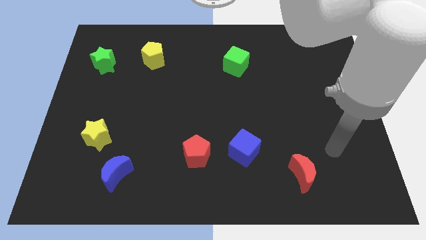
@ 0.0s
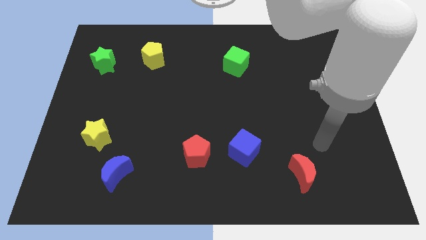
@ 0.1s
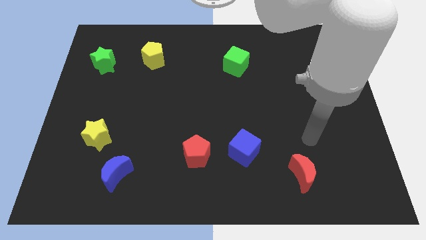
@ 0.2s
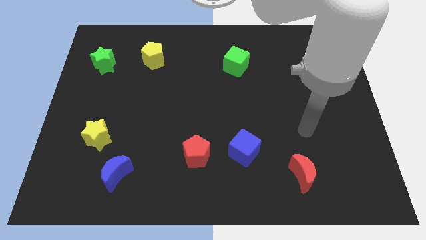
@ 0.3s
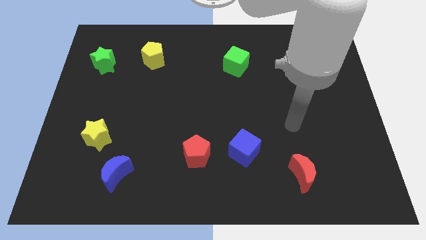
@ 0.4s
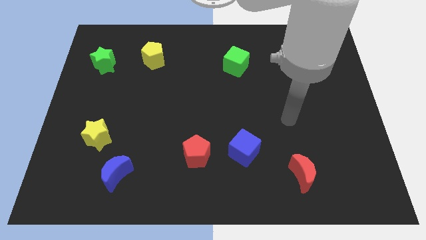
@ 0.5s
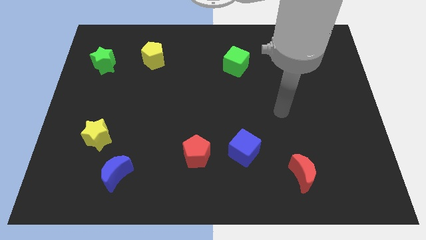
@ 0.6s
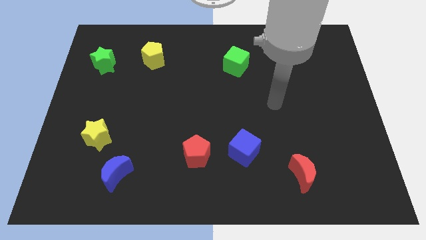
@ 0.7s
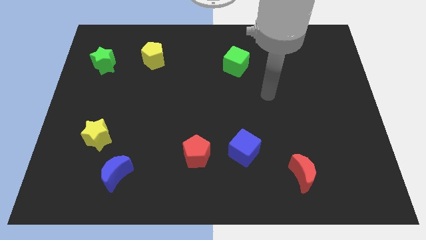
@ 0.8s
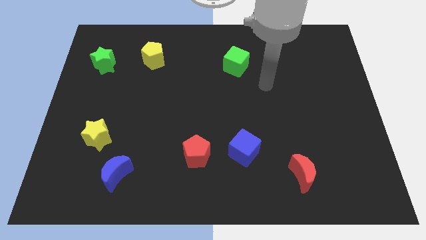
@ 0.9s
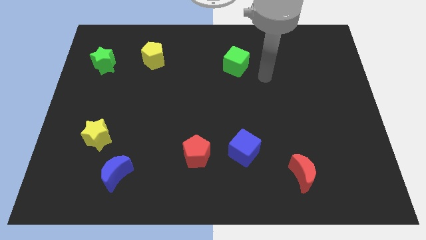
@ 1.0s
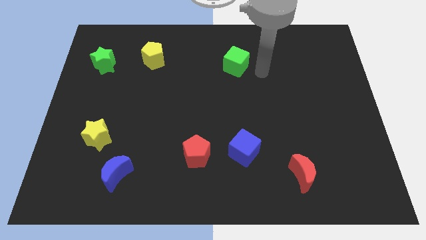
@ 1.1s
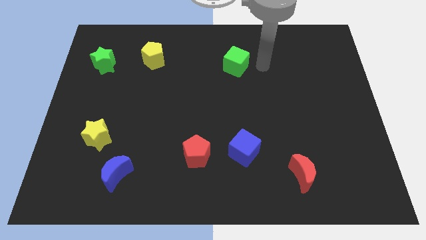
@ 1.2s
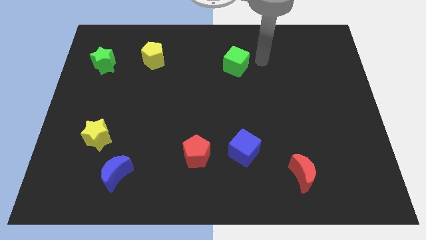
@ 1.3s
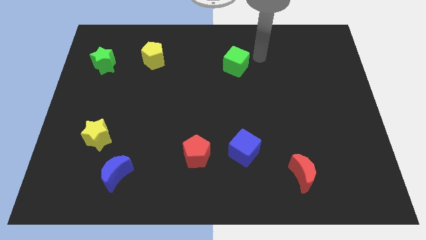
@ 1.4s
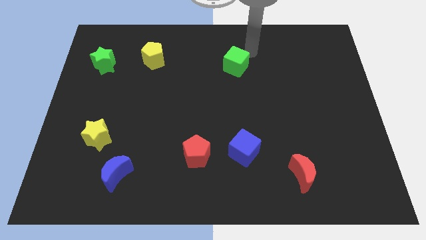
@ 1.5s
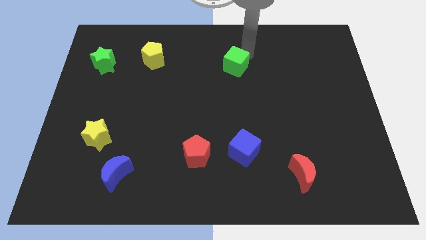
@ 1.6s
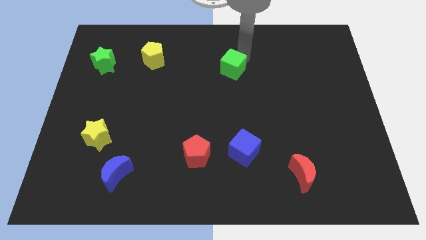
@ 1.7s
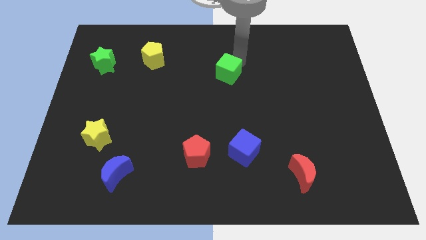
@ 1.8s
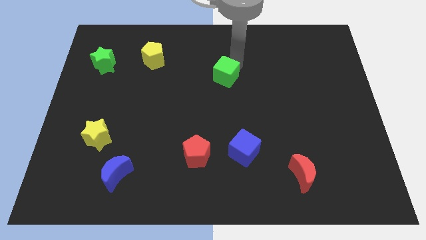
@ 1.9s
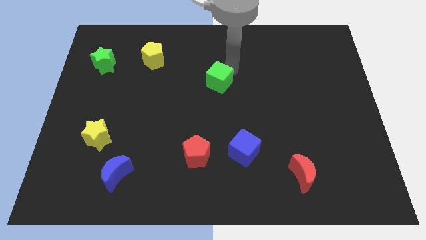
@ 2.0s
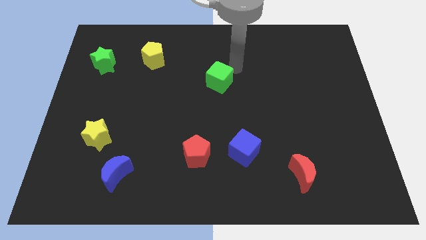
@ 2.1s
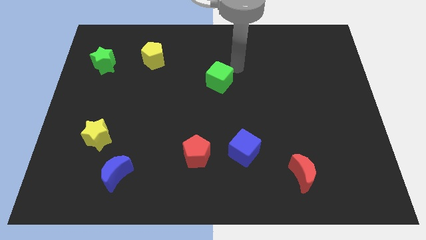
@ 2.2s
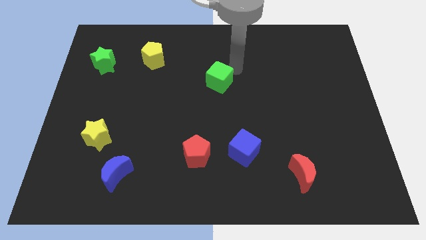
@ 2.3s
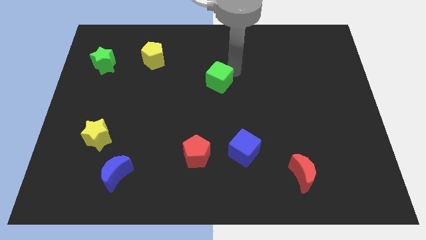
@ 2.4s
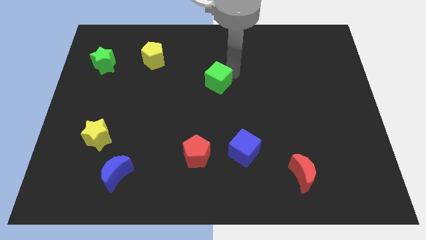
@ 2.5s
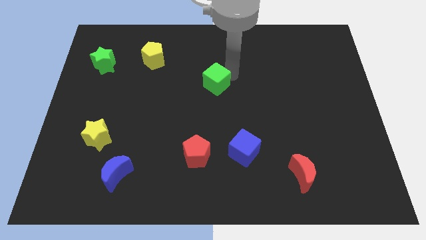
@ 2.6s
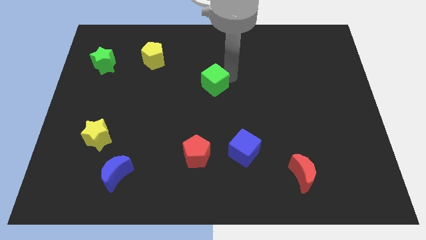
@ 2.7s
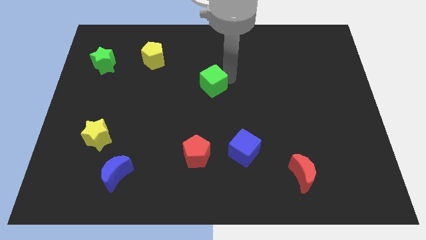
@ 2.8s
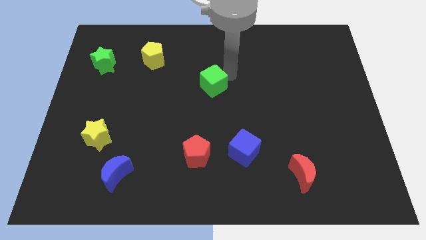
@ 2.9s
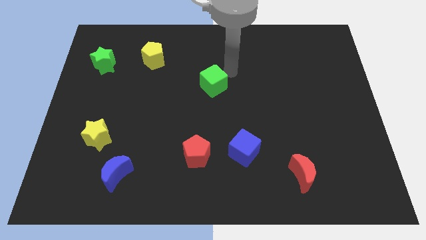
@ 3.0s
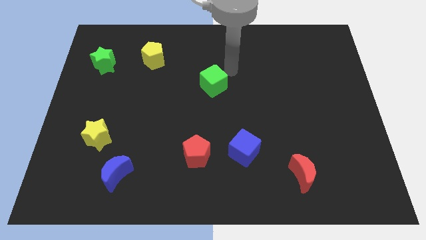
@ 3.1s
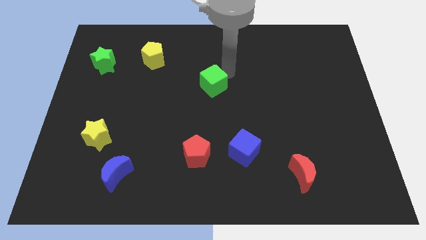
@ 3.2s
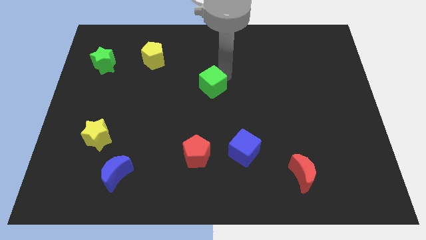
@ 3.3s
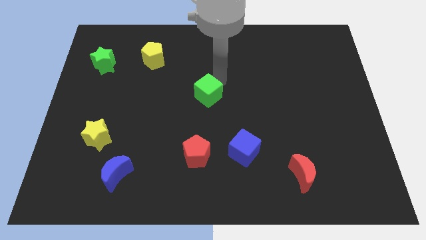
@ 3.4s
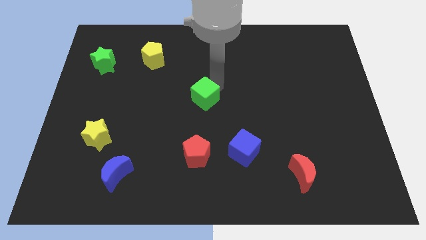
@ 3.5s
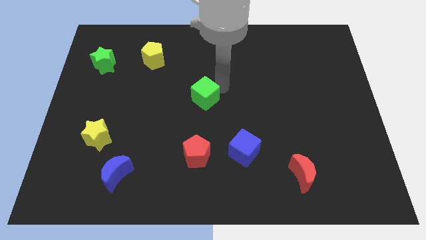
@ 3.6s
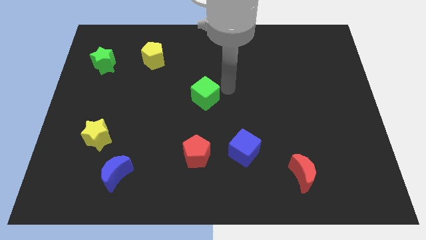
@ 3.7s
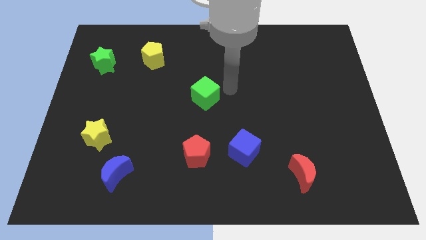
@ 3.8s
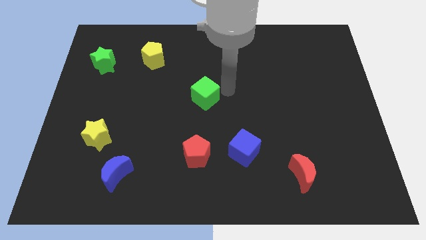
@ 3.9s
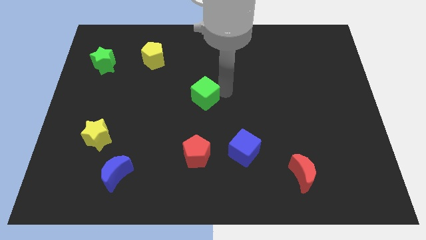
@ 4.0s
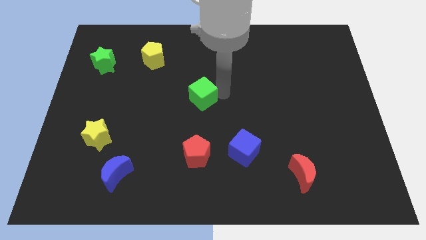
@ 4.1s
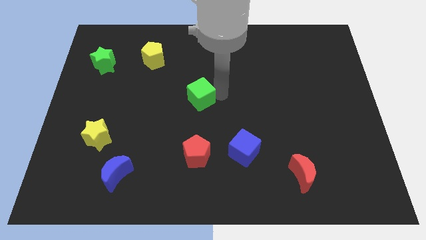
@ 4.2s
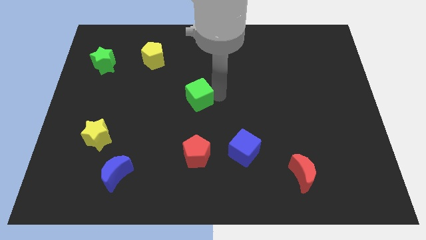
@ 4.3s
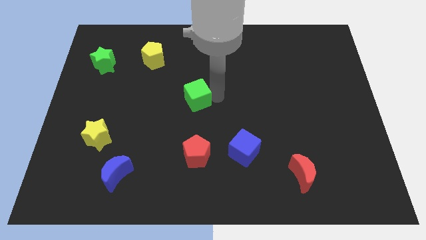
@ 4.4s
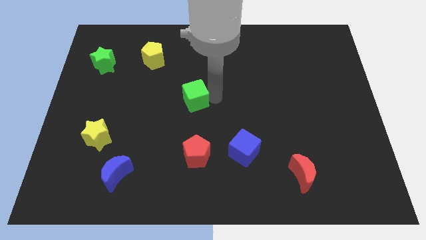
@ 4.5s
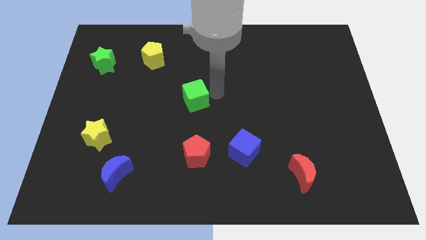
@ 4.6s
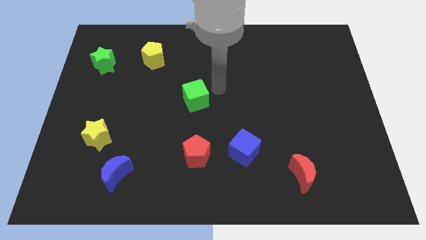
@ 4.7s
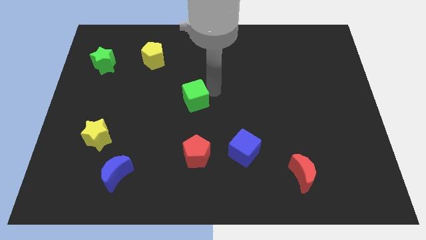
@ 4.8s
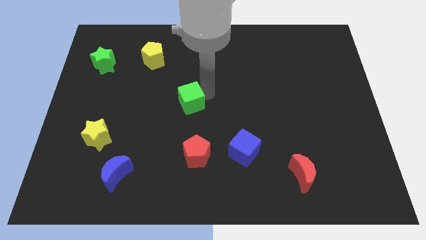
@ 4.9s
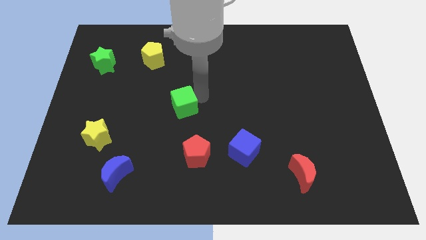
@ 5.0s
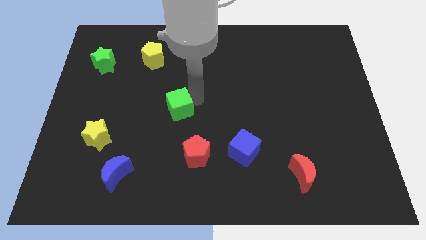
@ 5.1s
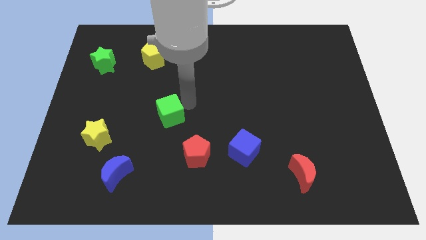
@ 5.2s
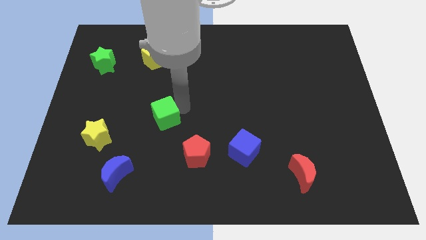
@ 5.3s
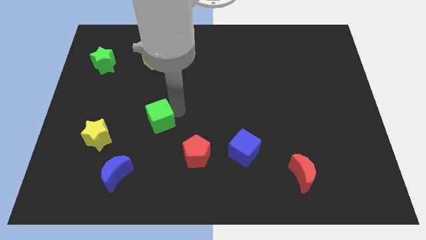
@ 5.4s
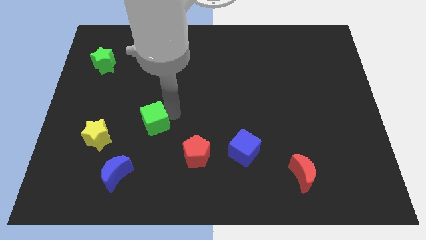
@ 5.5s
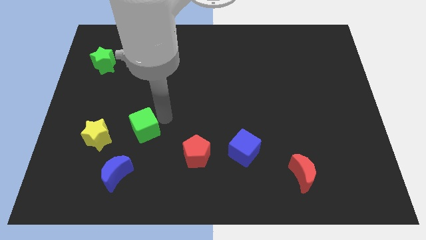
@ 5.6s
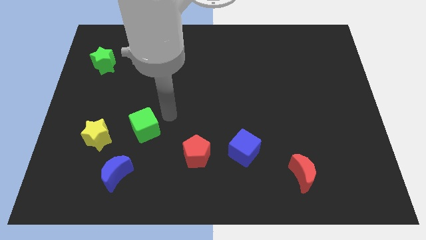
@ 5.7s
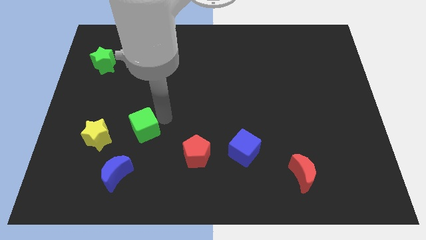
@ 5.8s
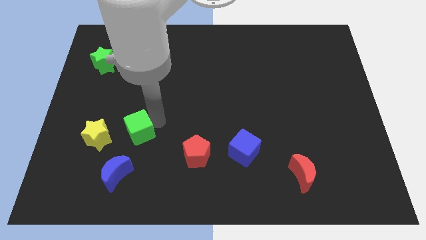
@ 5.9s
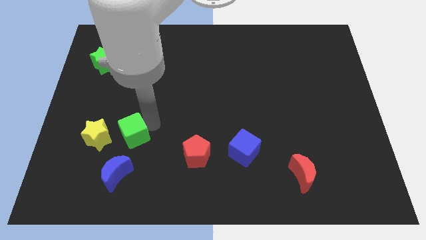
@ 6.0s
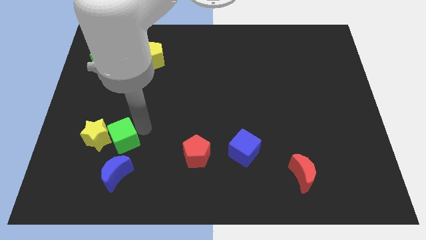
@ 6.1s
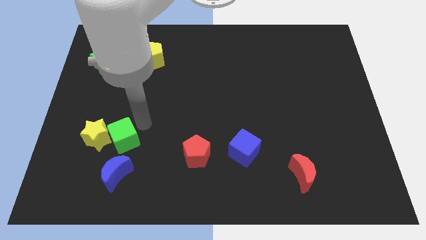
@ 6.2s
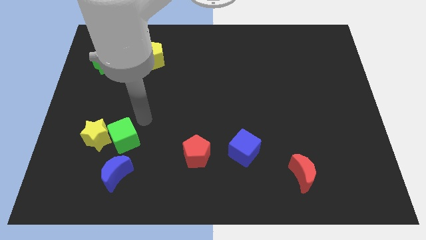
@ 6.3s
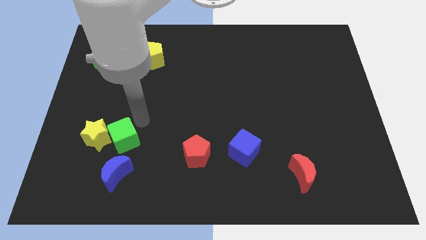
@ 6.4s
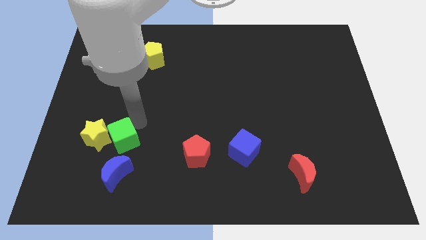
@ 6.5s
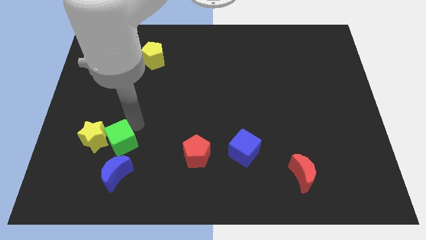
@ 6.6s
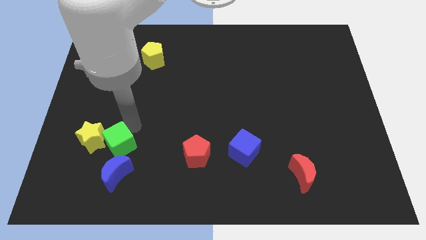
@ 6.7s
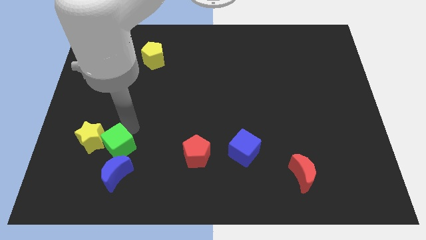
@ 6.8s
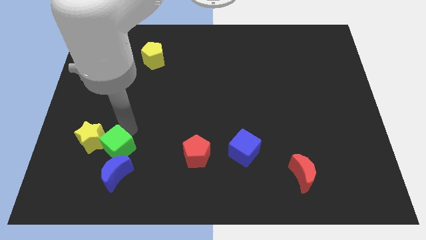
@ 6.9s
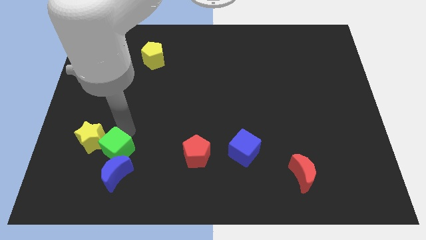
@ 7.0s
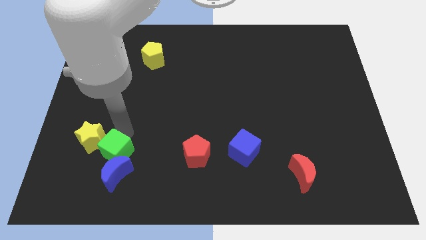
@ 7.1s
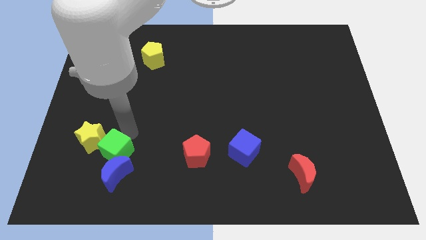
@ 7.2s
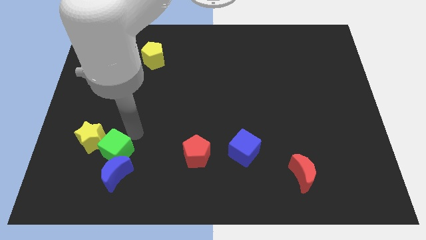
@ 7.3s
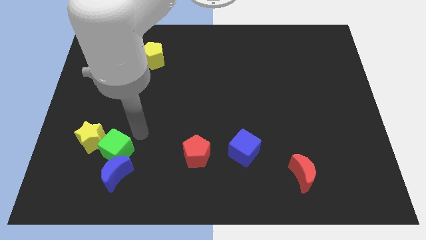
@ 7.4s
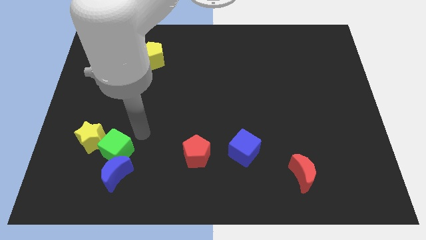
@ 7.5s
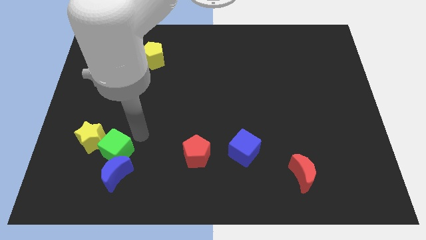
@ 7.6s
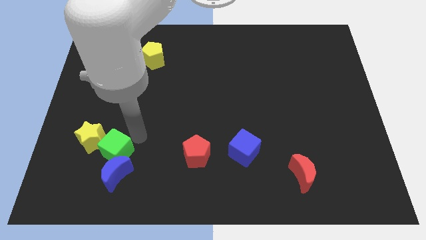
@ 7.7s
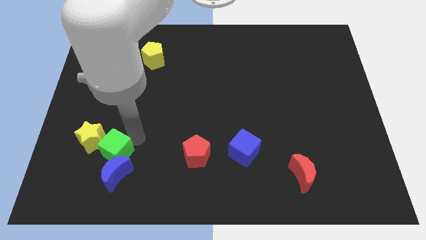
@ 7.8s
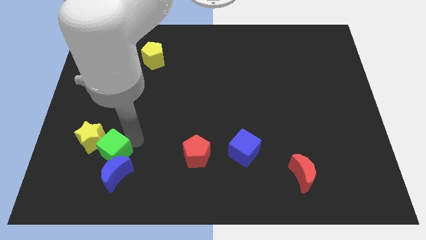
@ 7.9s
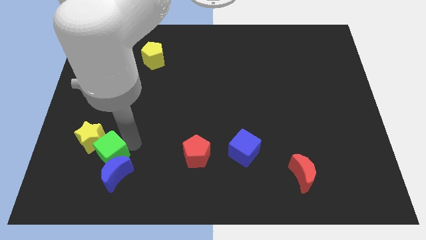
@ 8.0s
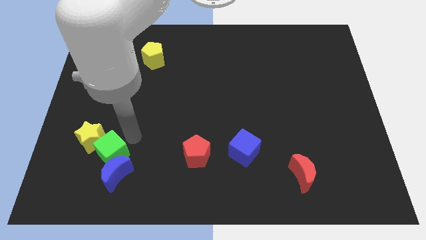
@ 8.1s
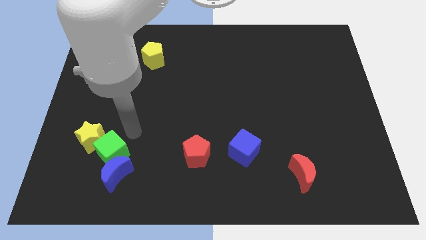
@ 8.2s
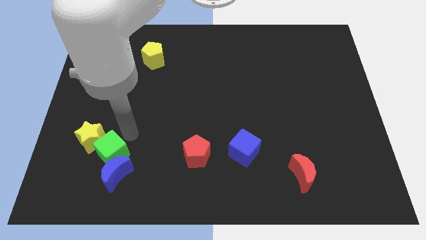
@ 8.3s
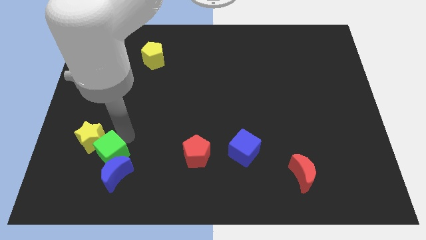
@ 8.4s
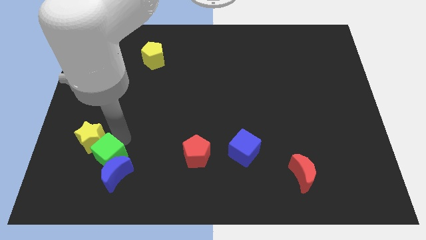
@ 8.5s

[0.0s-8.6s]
push the green cube to the bottom of the yellow star
